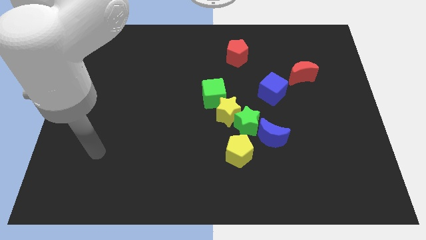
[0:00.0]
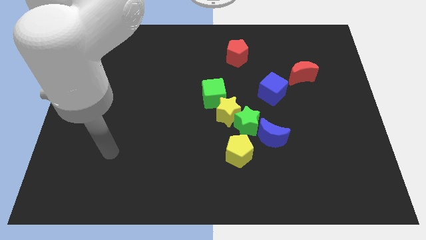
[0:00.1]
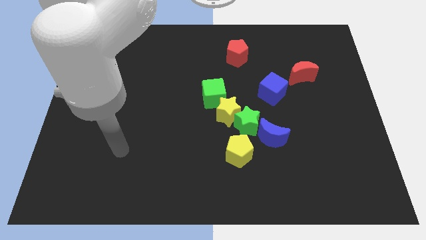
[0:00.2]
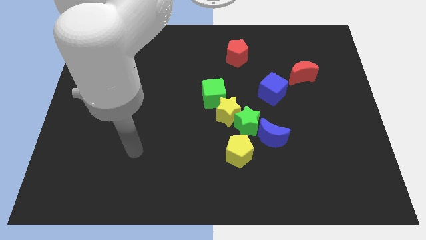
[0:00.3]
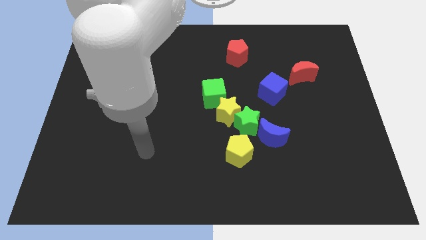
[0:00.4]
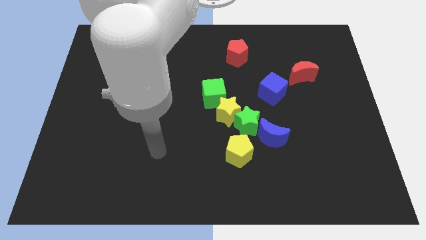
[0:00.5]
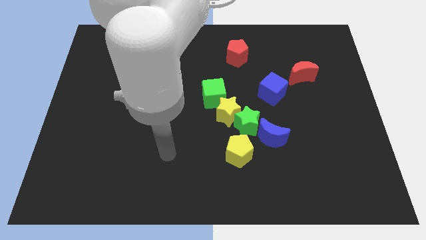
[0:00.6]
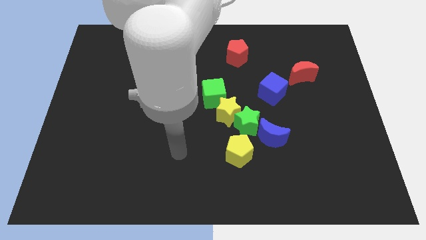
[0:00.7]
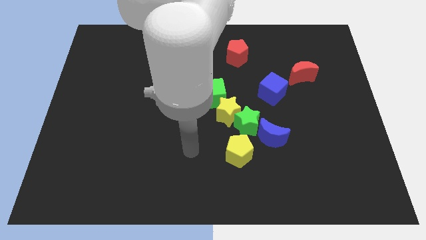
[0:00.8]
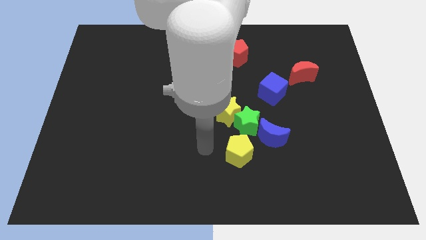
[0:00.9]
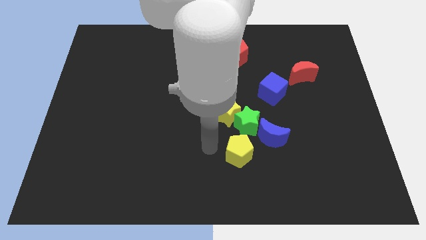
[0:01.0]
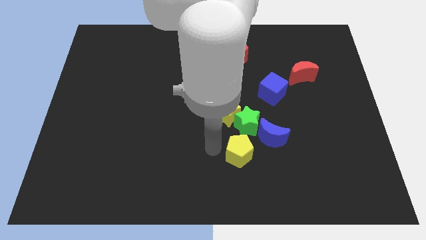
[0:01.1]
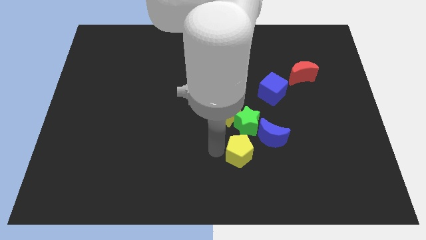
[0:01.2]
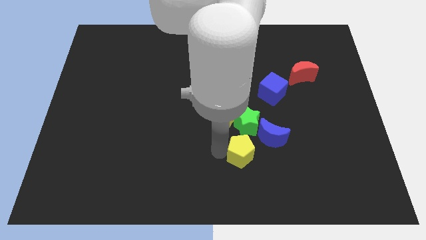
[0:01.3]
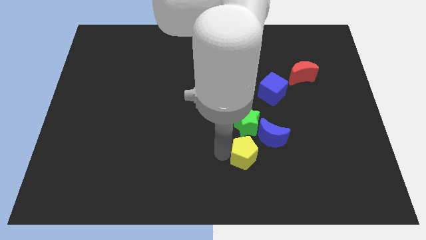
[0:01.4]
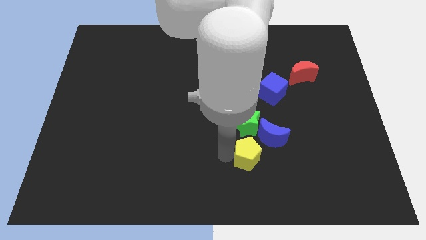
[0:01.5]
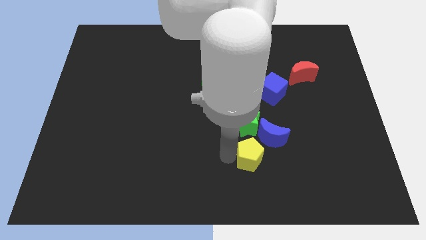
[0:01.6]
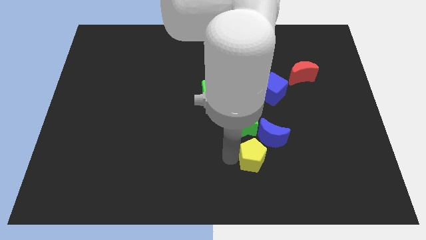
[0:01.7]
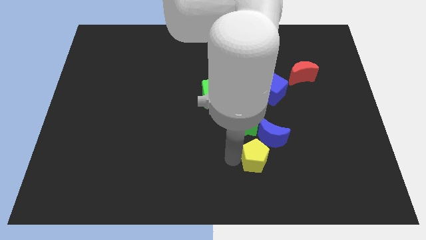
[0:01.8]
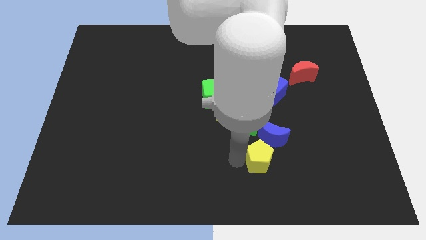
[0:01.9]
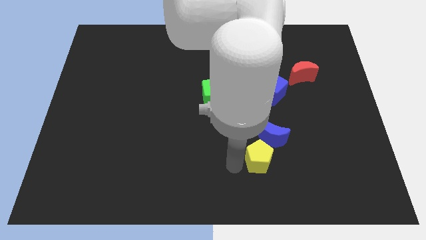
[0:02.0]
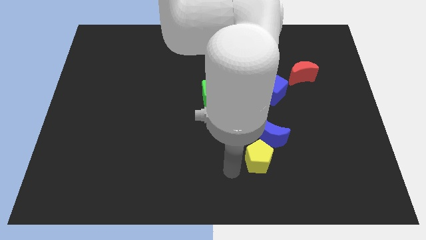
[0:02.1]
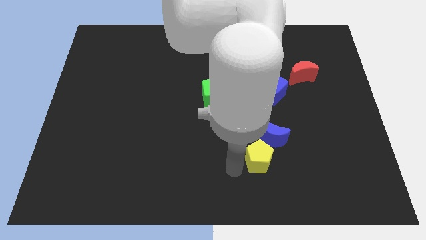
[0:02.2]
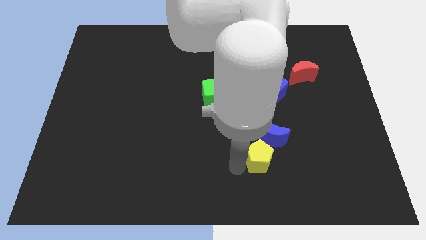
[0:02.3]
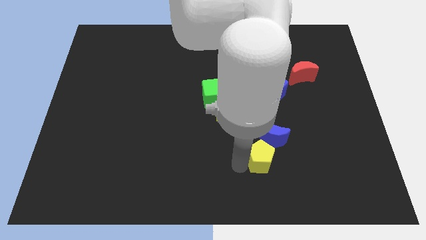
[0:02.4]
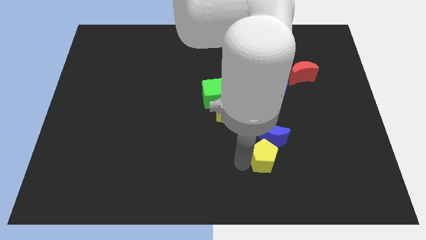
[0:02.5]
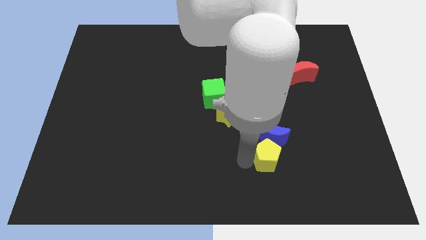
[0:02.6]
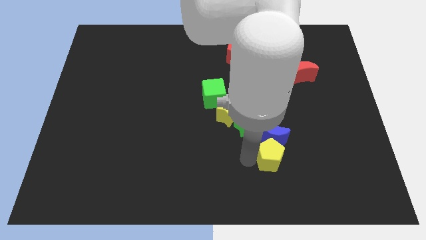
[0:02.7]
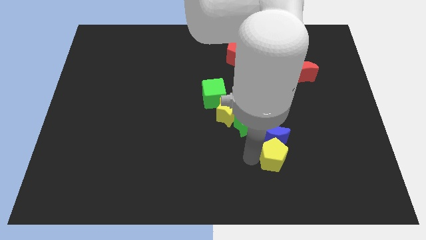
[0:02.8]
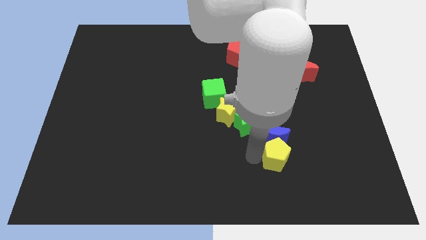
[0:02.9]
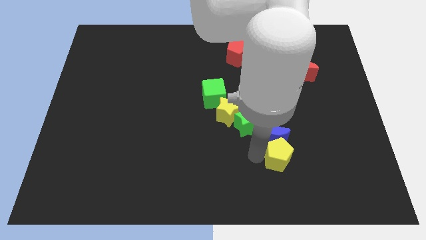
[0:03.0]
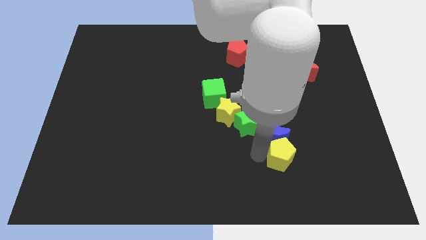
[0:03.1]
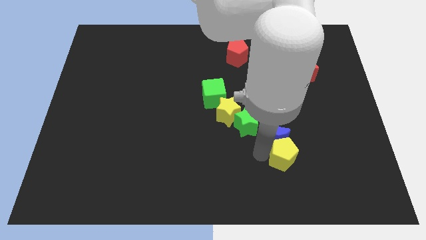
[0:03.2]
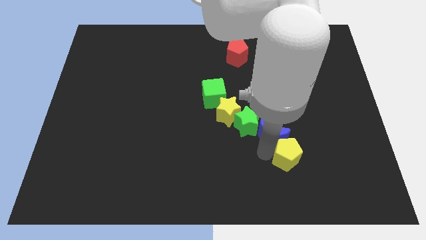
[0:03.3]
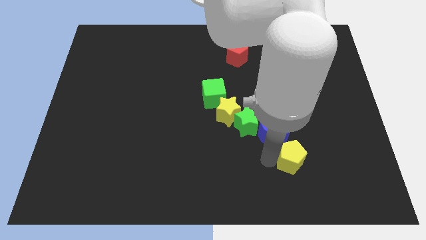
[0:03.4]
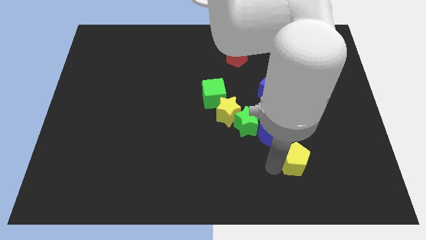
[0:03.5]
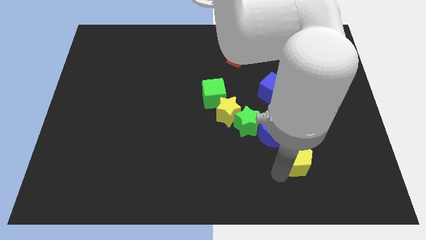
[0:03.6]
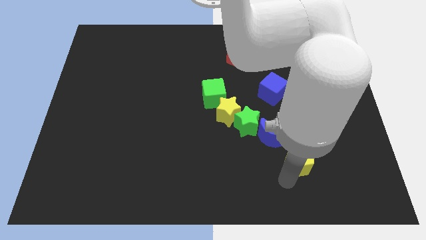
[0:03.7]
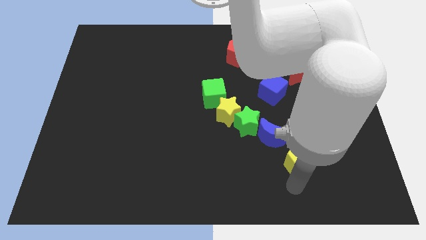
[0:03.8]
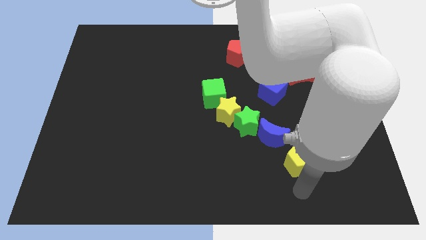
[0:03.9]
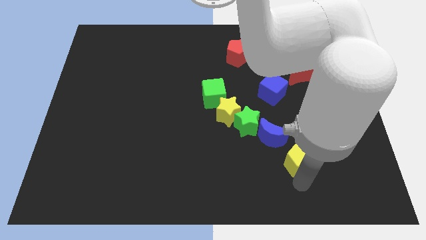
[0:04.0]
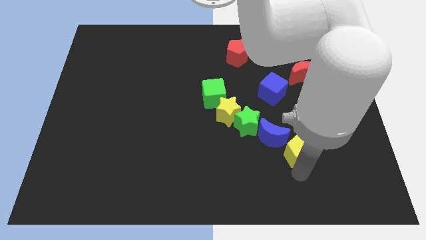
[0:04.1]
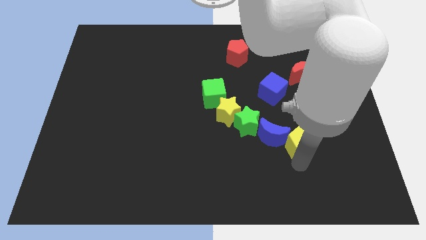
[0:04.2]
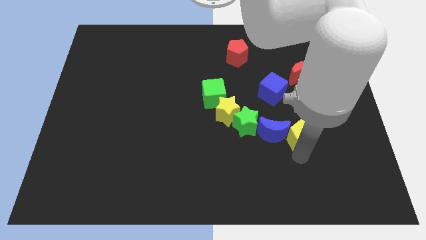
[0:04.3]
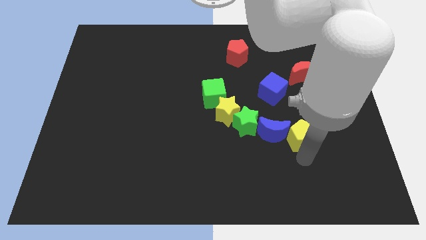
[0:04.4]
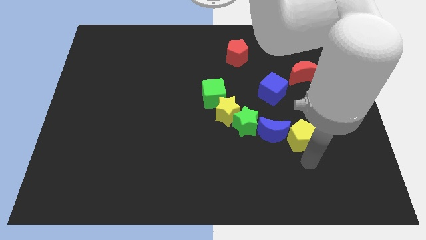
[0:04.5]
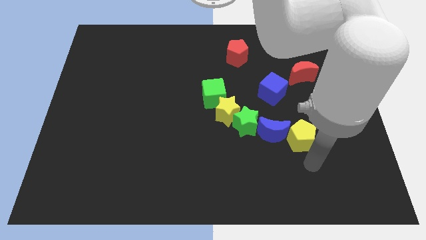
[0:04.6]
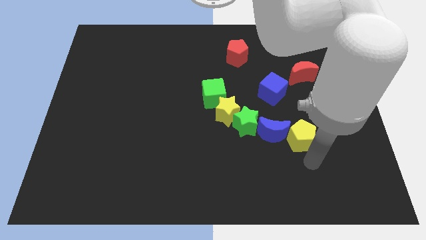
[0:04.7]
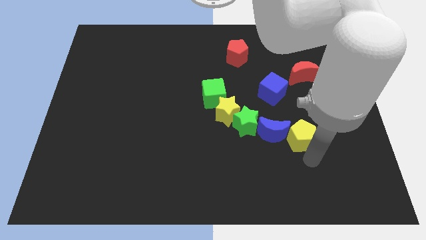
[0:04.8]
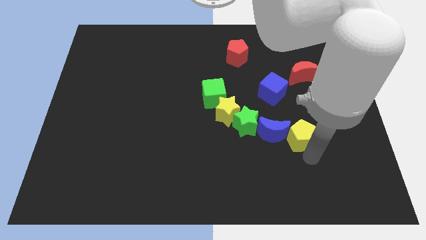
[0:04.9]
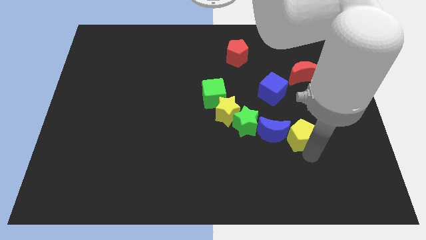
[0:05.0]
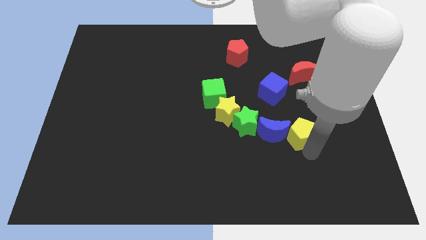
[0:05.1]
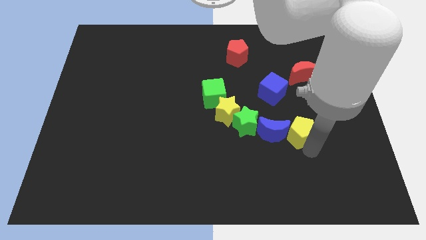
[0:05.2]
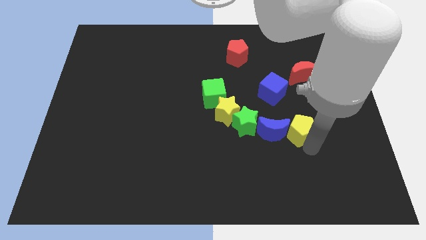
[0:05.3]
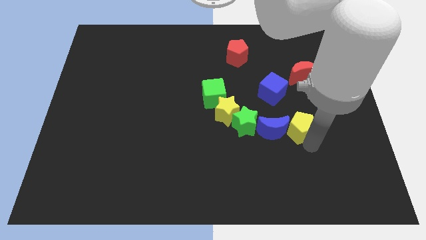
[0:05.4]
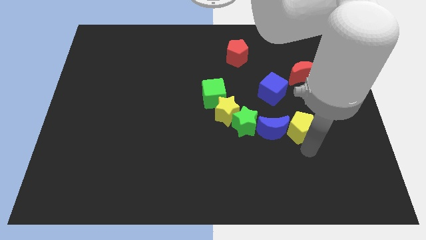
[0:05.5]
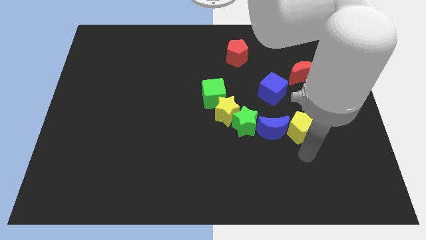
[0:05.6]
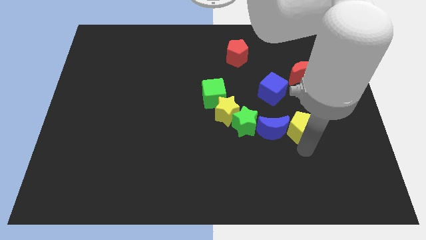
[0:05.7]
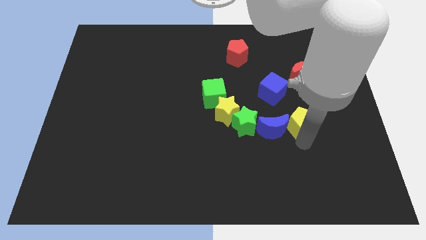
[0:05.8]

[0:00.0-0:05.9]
slide the yellow pentagon to the bottom right side of the blue cube

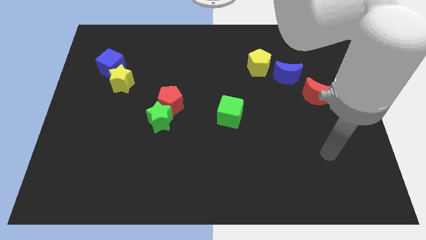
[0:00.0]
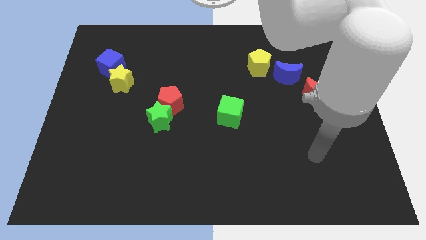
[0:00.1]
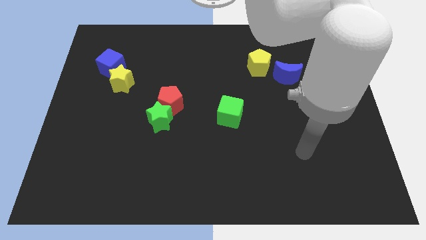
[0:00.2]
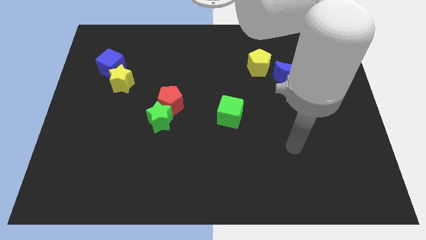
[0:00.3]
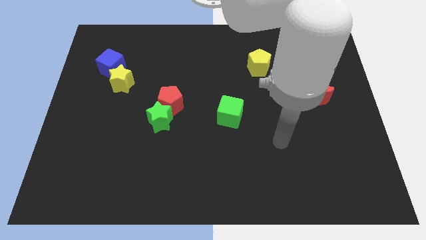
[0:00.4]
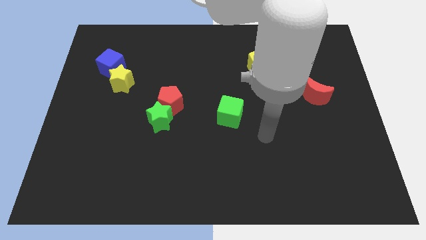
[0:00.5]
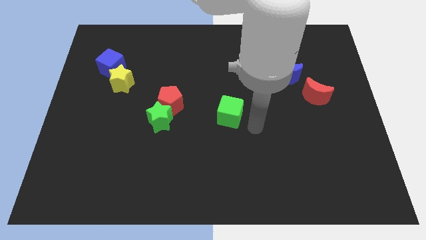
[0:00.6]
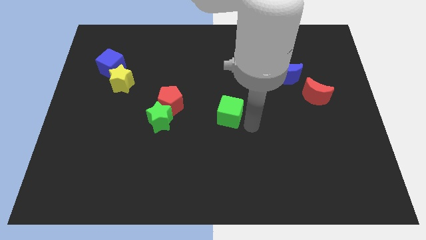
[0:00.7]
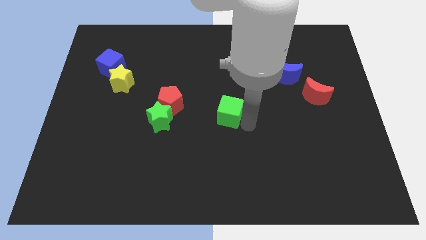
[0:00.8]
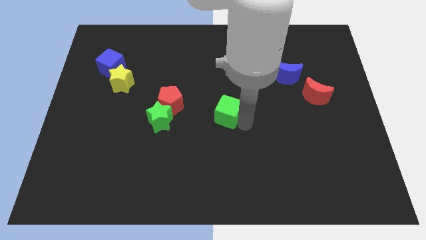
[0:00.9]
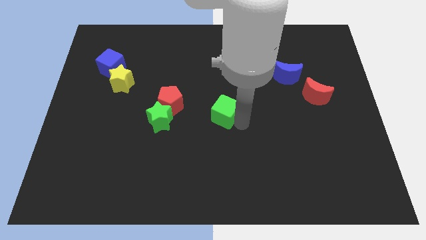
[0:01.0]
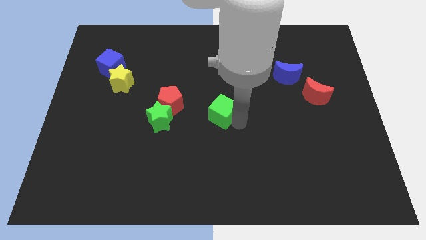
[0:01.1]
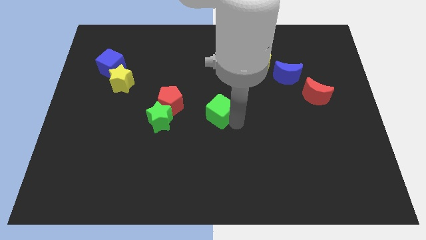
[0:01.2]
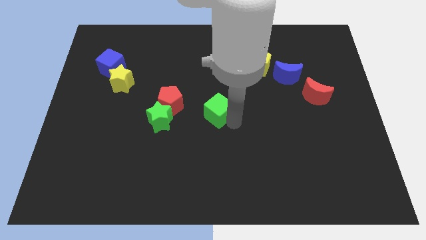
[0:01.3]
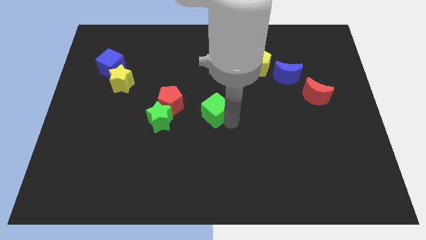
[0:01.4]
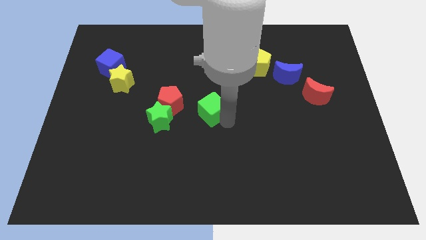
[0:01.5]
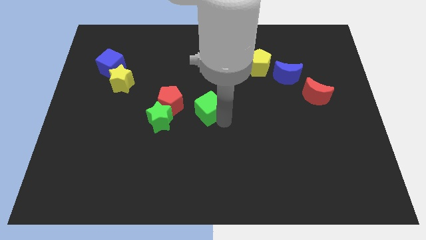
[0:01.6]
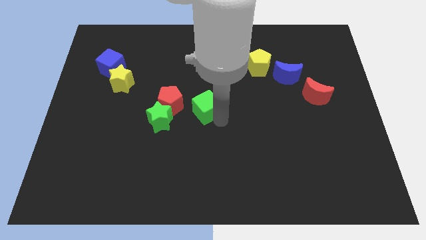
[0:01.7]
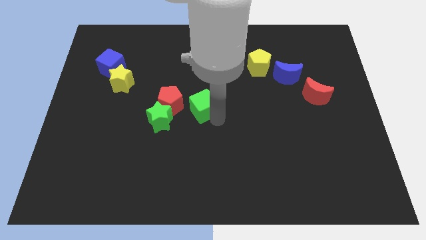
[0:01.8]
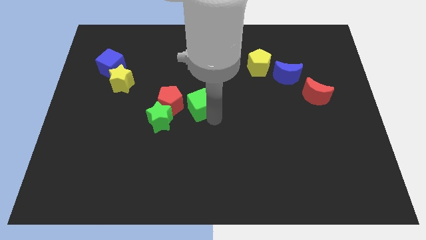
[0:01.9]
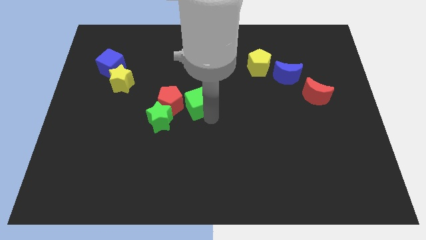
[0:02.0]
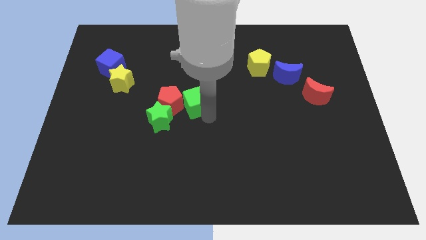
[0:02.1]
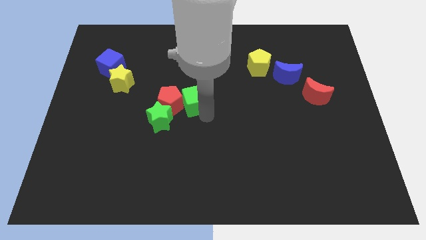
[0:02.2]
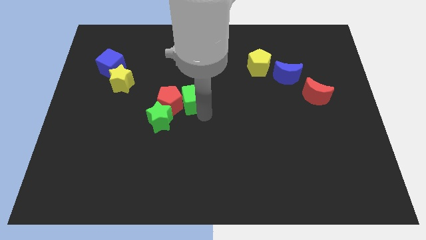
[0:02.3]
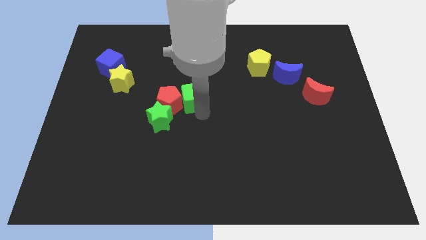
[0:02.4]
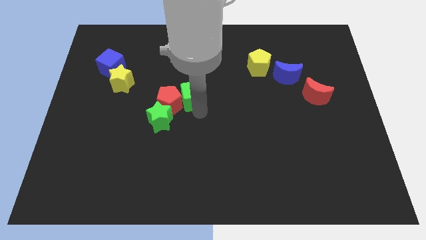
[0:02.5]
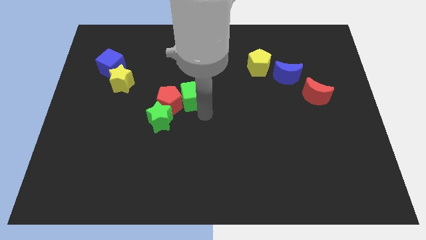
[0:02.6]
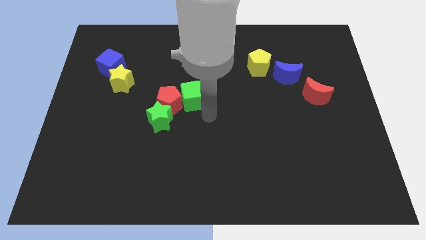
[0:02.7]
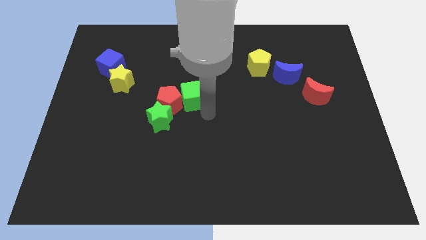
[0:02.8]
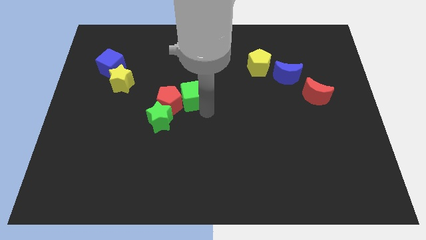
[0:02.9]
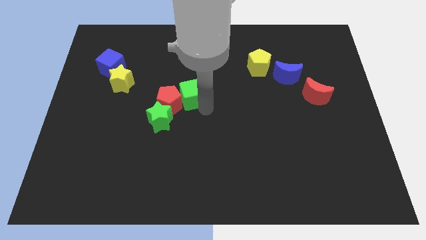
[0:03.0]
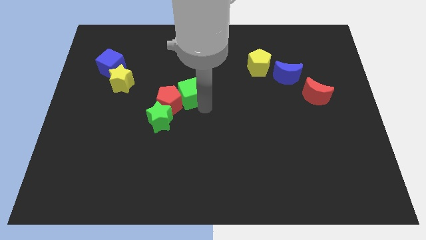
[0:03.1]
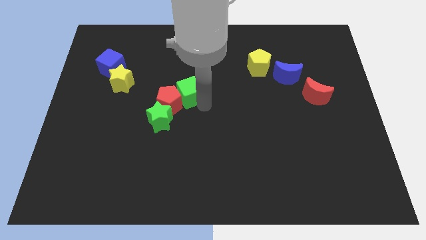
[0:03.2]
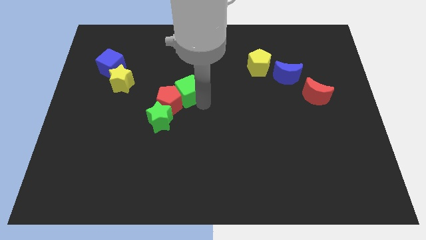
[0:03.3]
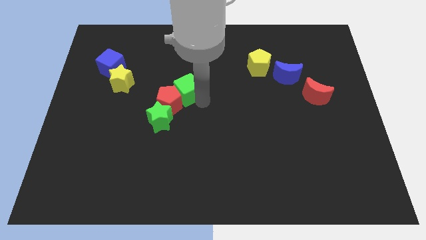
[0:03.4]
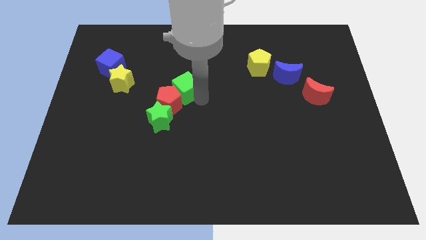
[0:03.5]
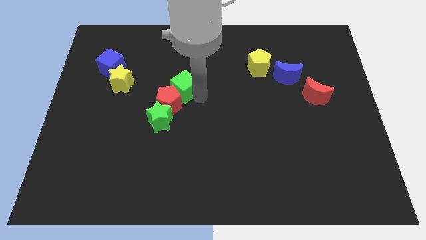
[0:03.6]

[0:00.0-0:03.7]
push the green cube to the top of the green star
